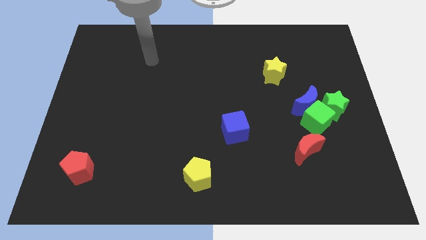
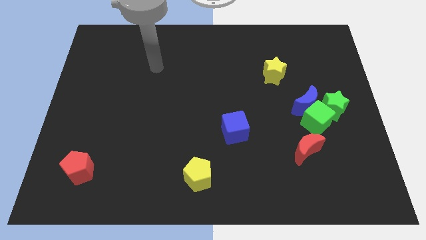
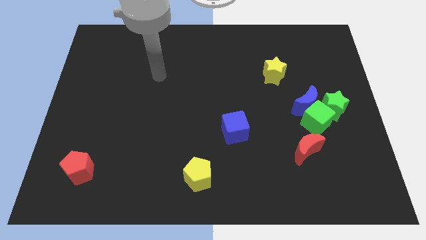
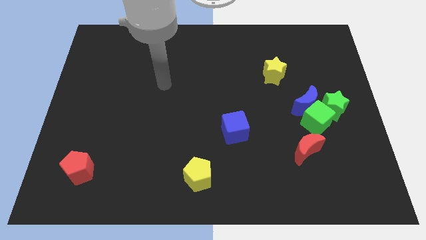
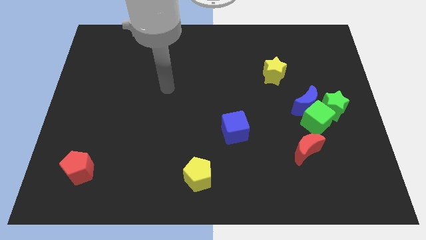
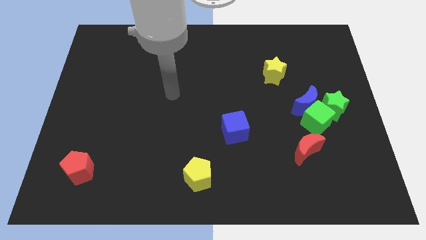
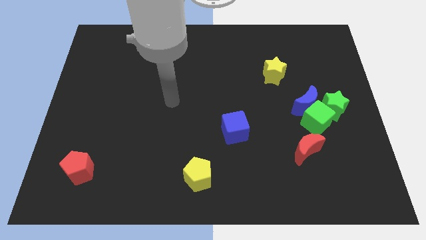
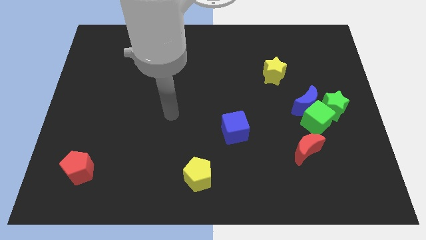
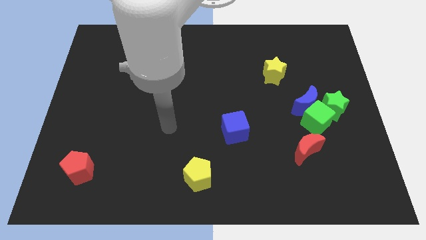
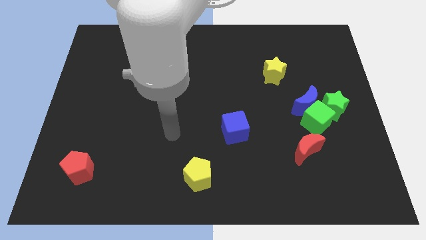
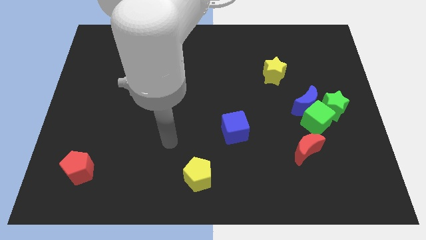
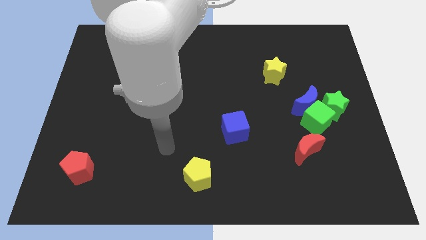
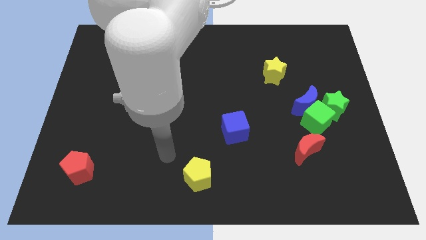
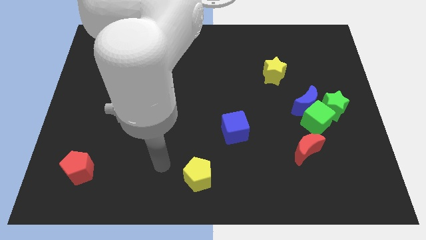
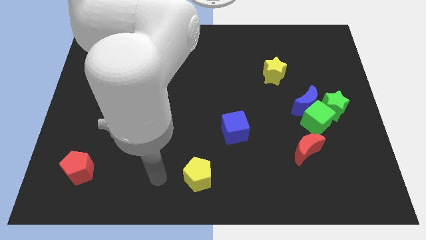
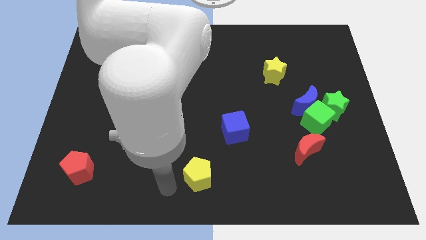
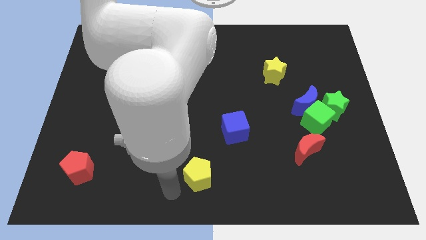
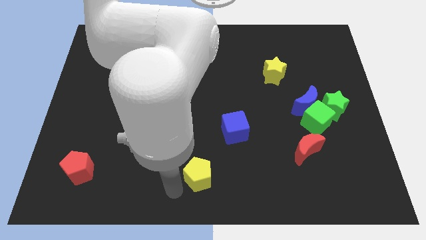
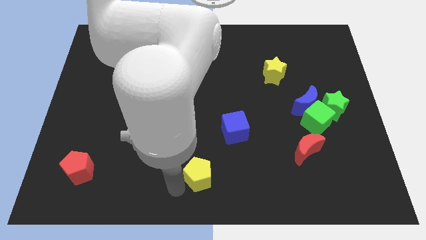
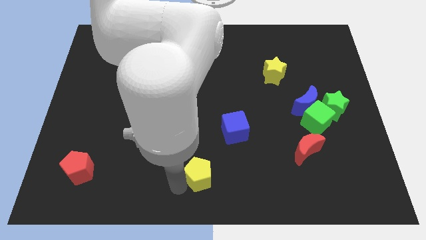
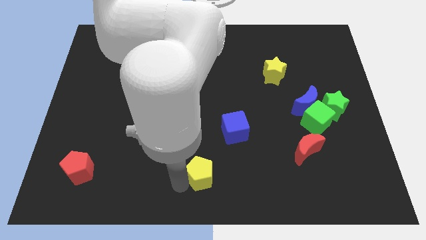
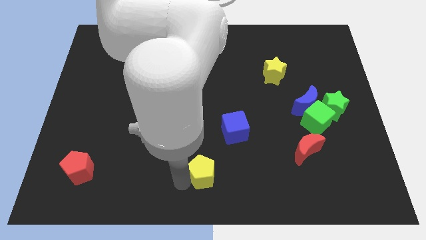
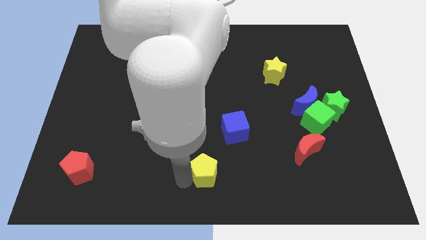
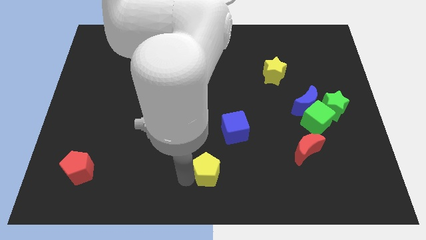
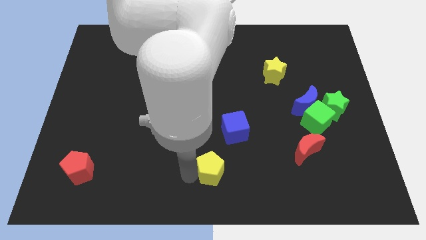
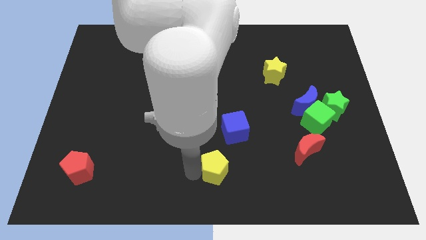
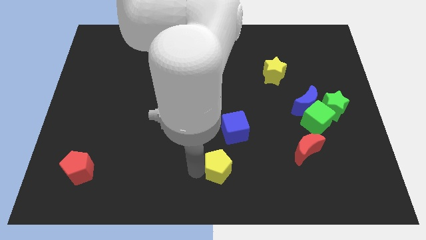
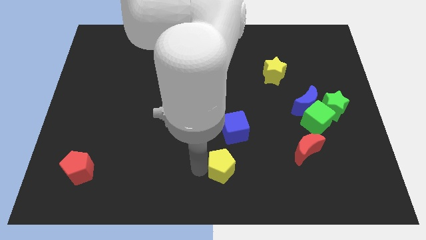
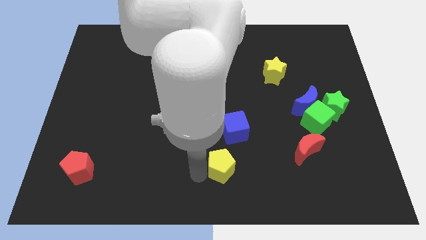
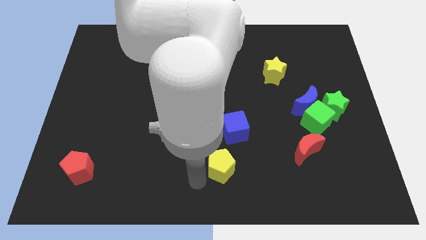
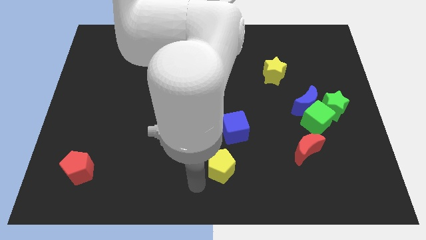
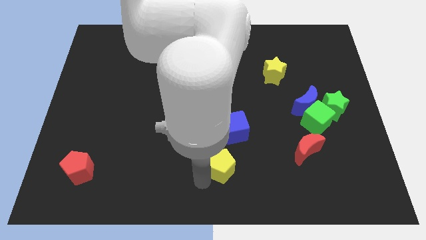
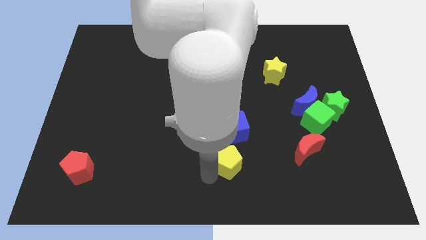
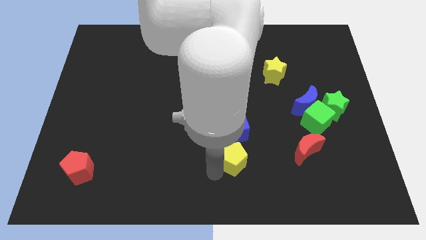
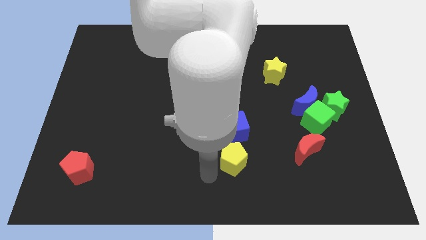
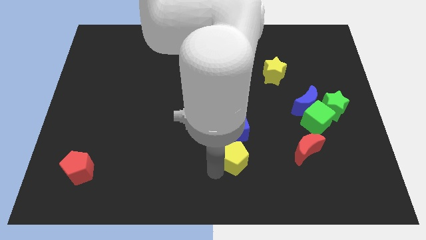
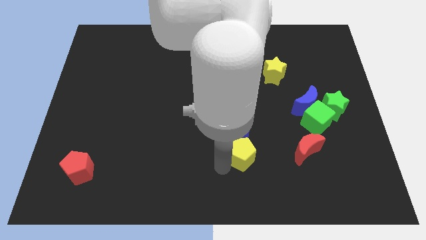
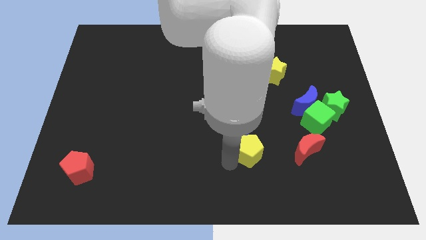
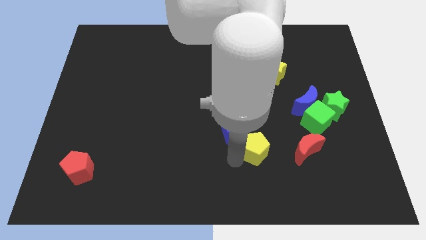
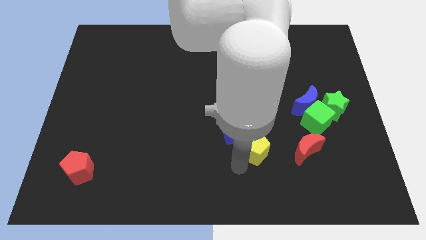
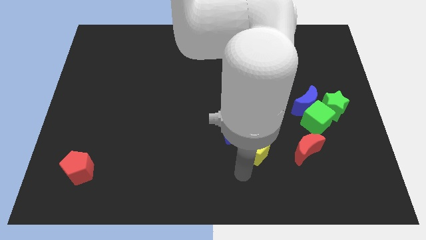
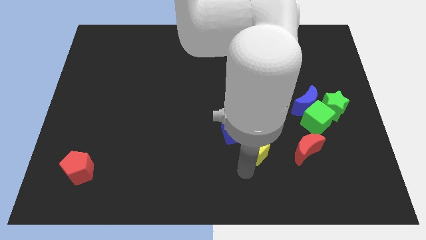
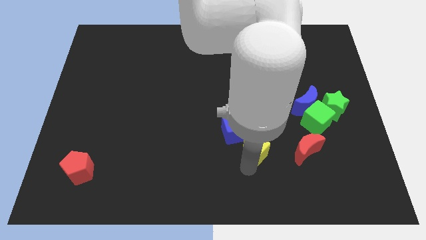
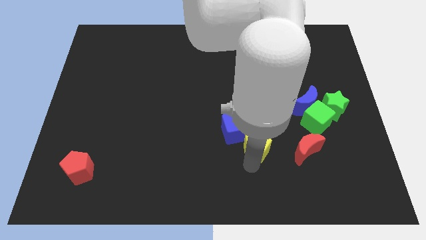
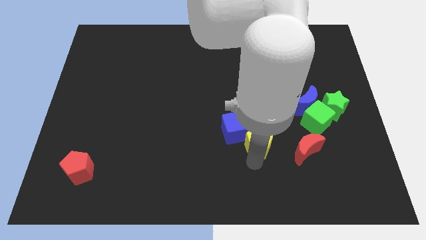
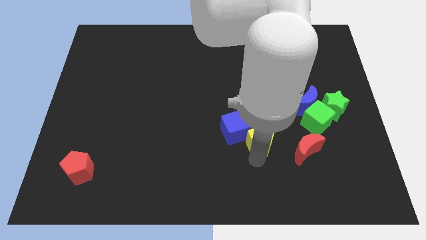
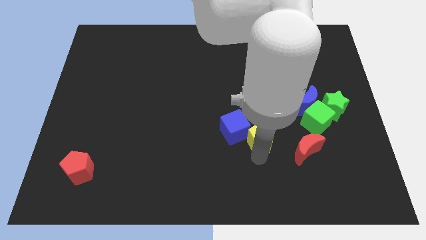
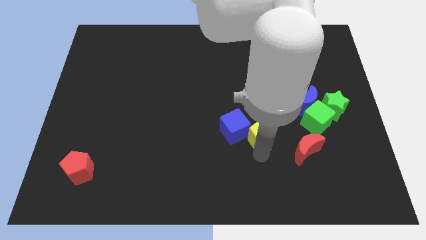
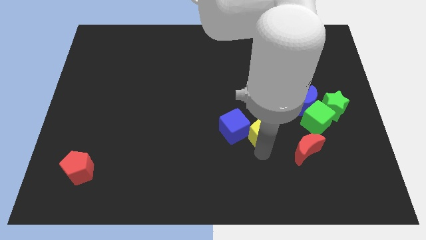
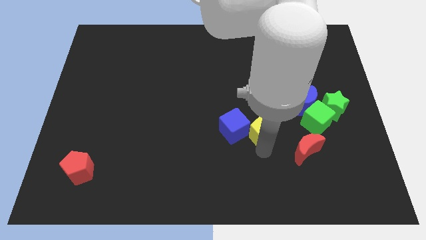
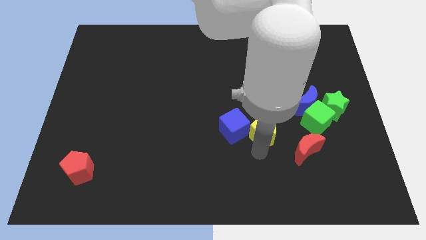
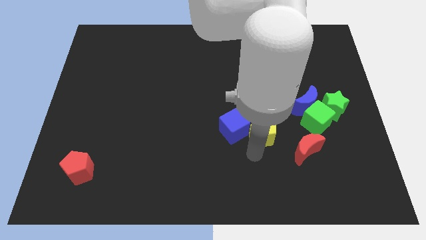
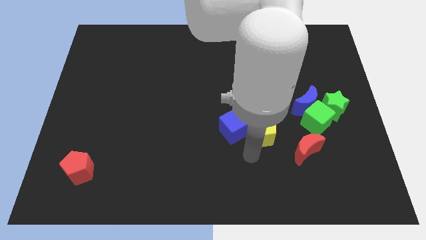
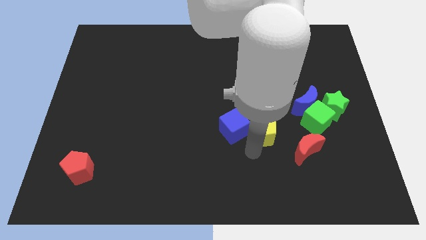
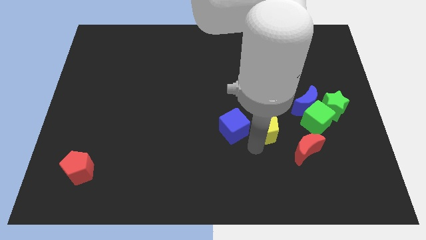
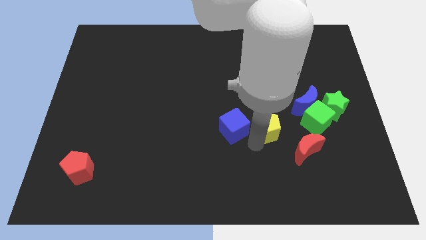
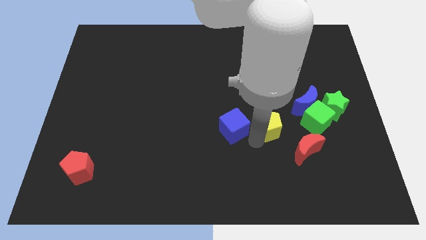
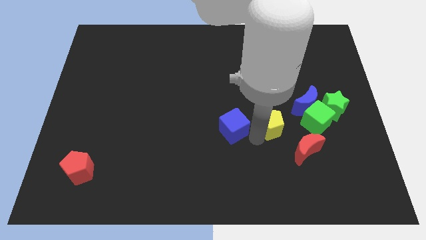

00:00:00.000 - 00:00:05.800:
move the yellow pentagon diagonally up and right

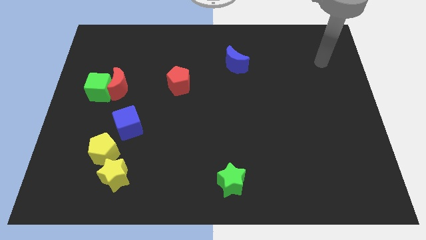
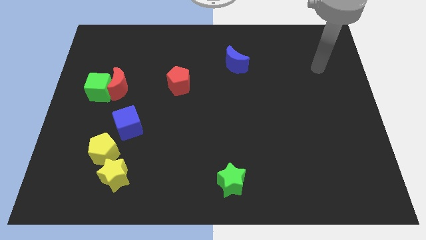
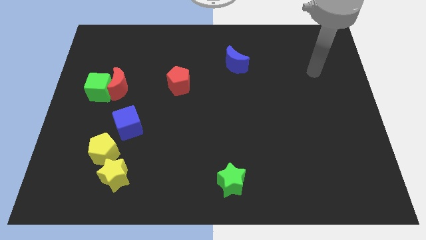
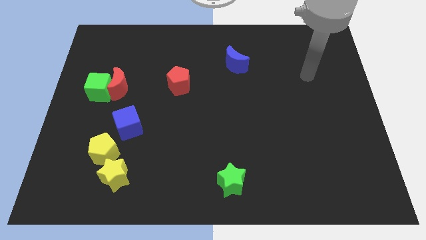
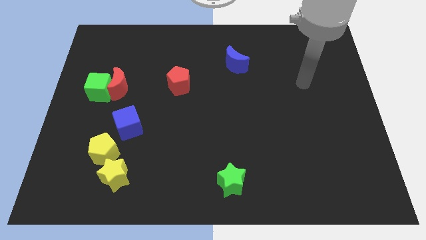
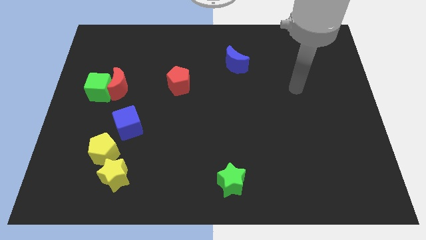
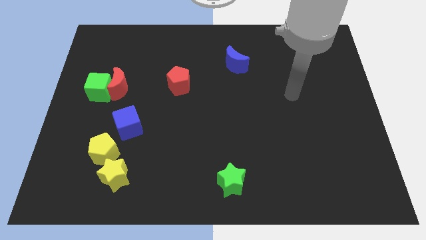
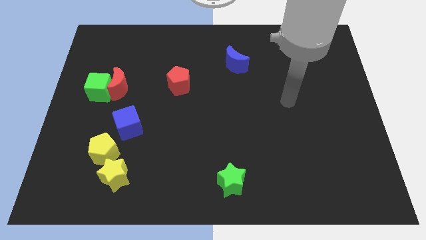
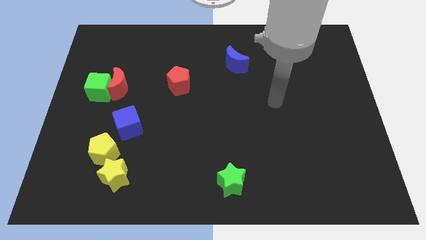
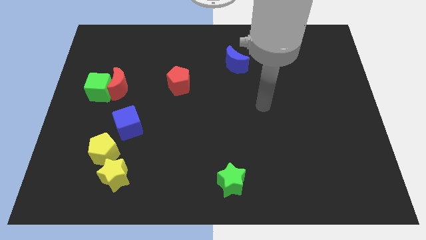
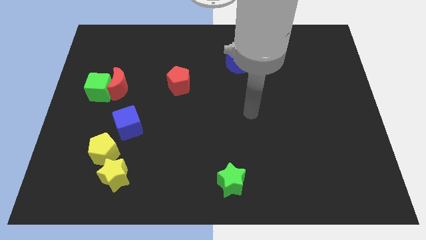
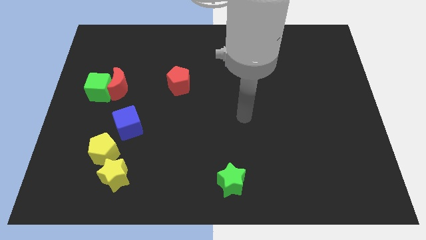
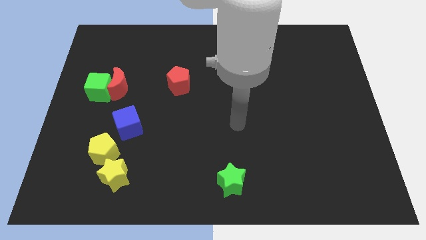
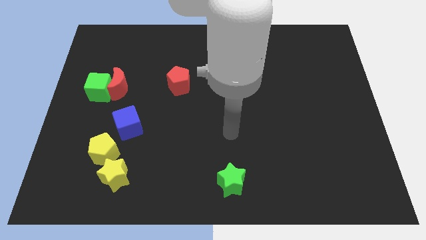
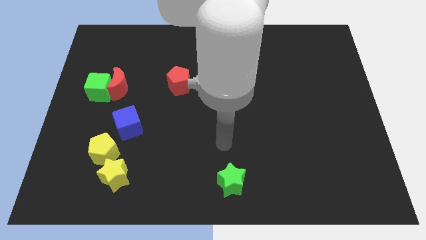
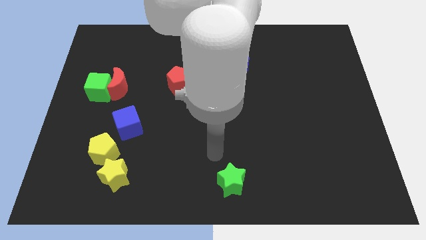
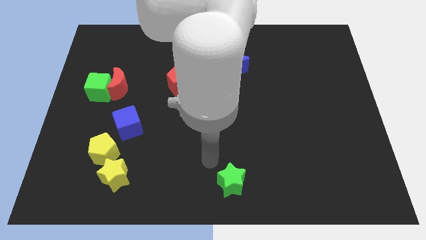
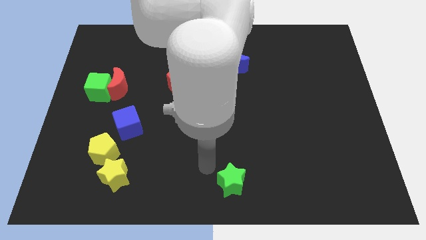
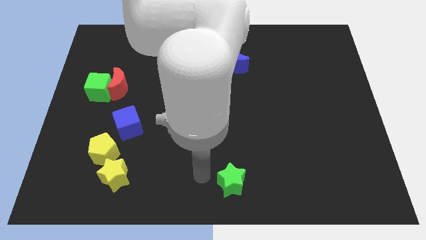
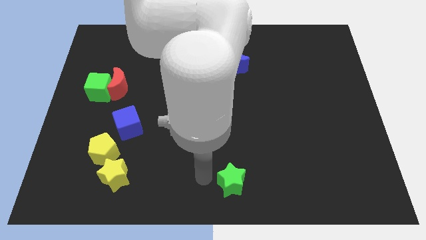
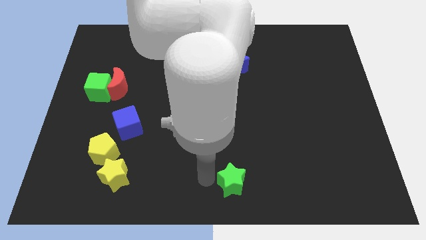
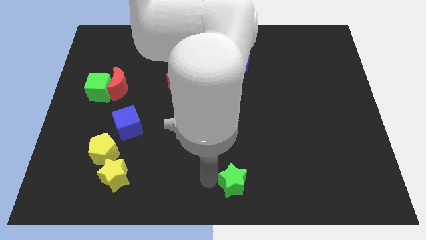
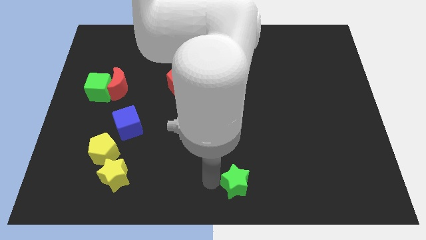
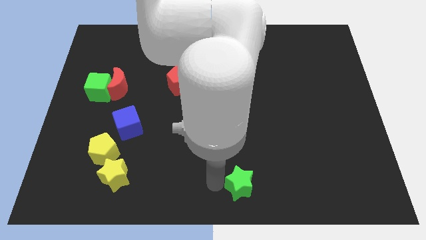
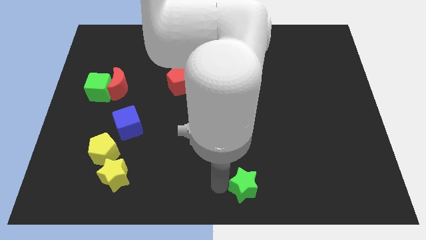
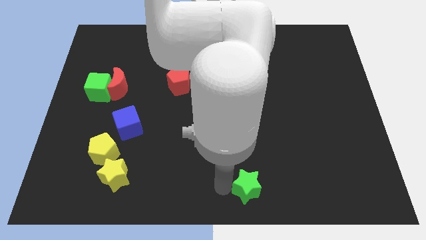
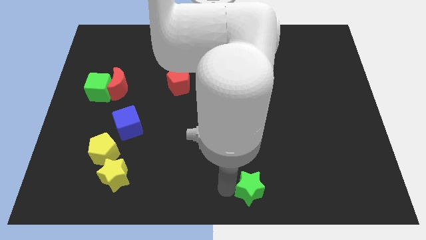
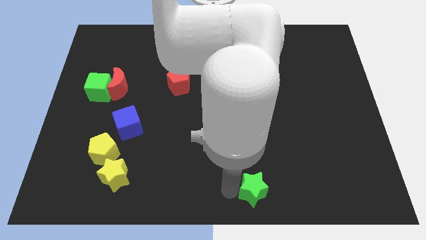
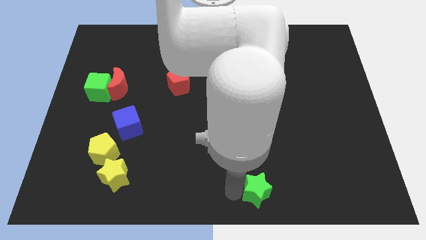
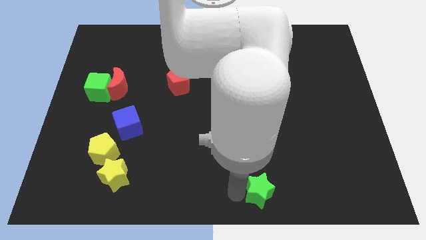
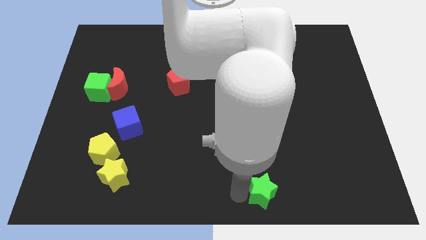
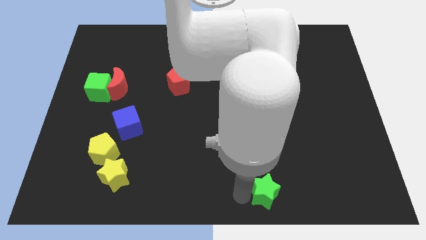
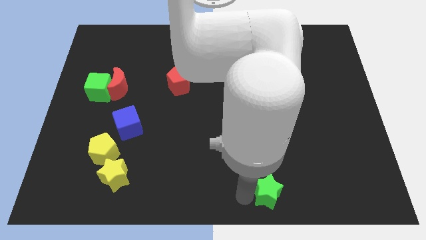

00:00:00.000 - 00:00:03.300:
move the green star a little right
